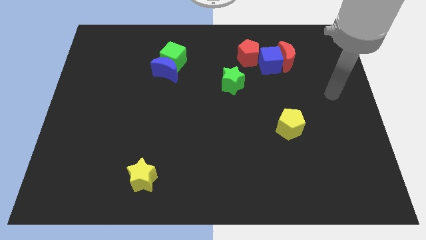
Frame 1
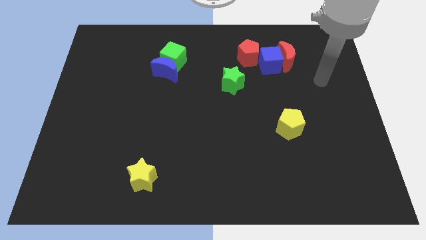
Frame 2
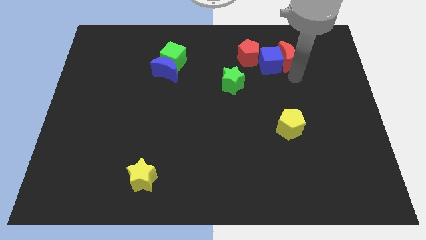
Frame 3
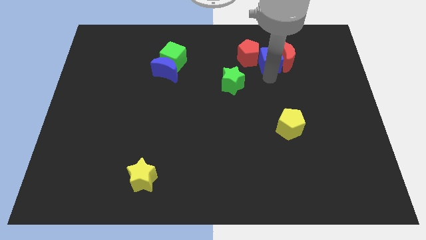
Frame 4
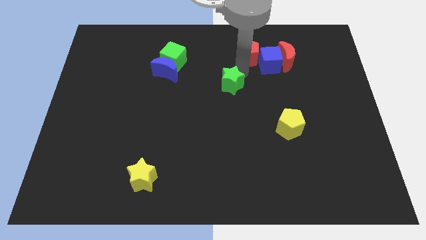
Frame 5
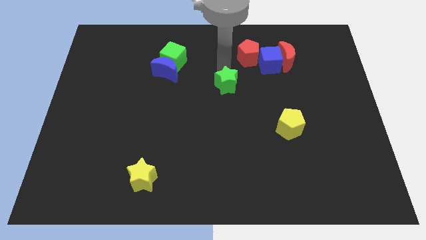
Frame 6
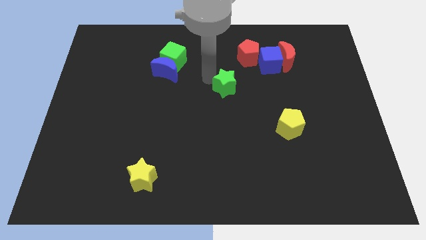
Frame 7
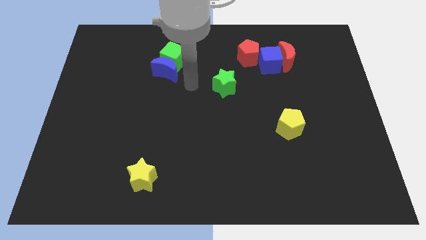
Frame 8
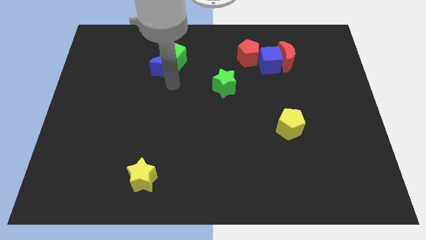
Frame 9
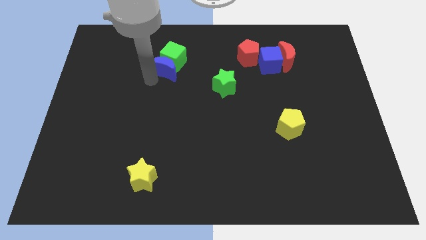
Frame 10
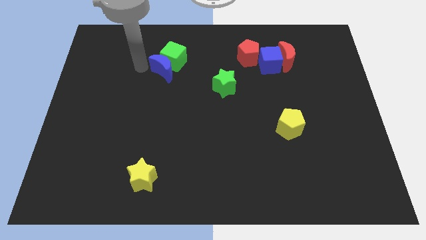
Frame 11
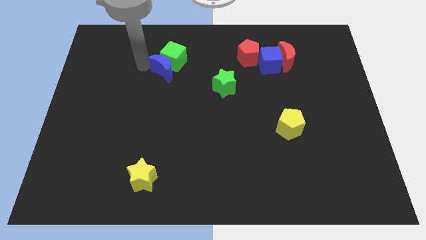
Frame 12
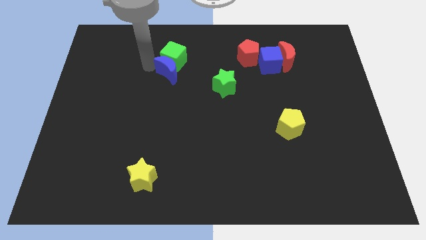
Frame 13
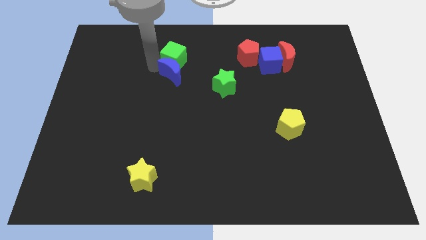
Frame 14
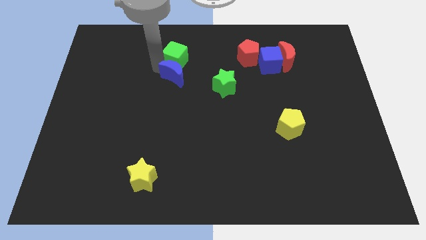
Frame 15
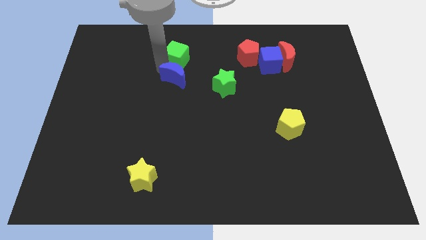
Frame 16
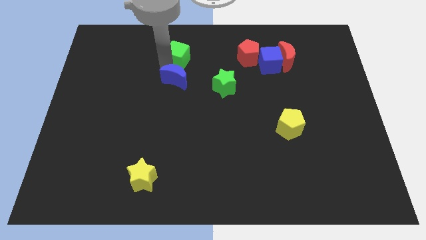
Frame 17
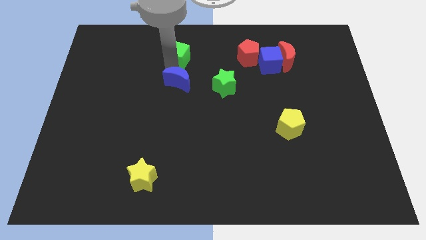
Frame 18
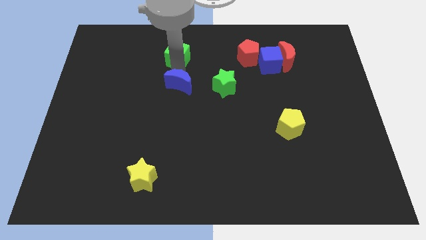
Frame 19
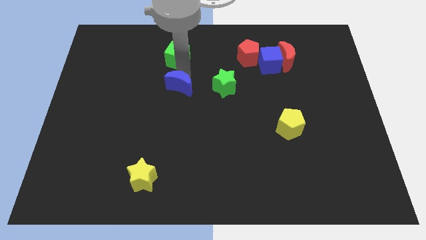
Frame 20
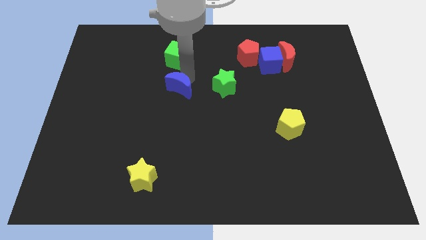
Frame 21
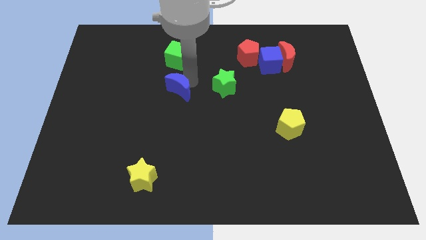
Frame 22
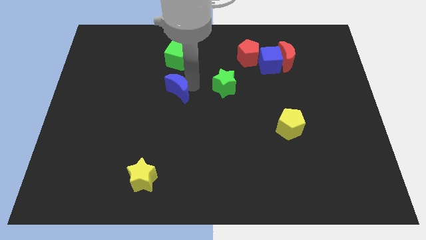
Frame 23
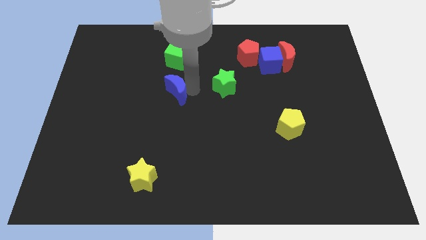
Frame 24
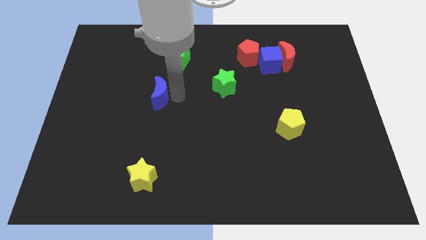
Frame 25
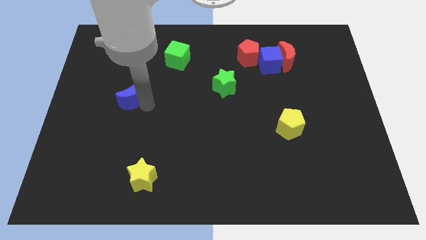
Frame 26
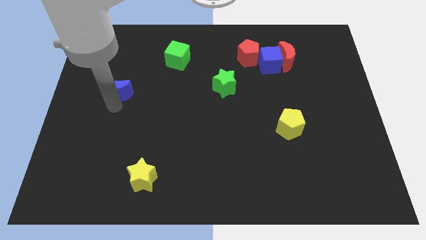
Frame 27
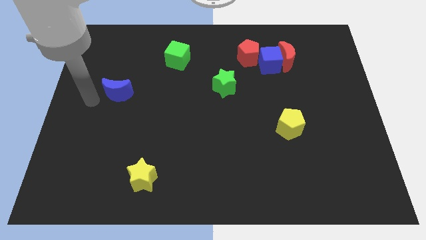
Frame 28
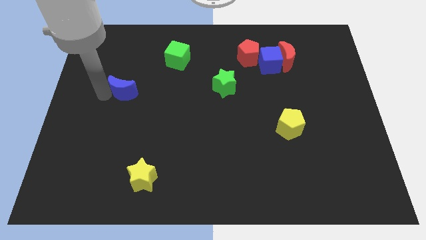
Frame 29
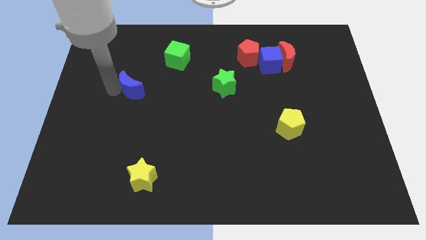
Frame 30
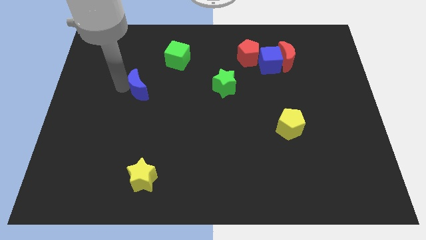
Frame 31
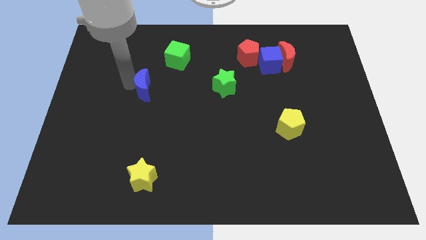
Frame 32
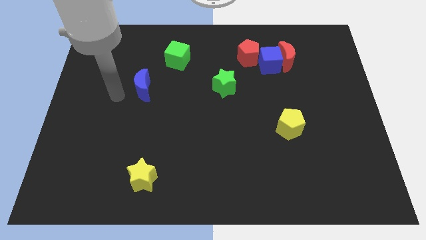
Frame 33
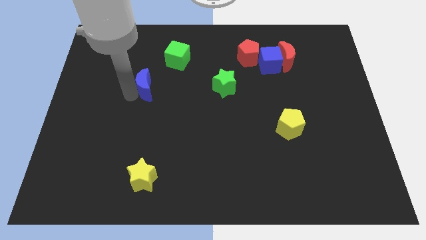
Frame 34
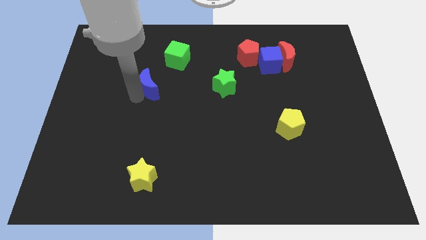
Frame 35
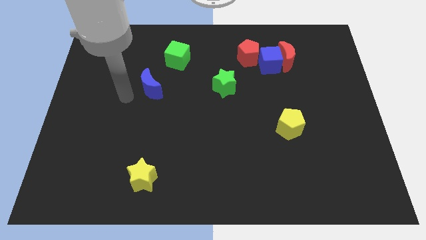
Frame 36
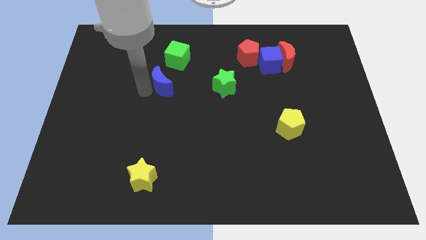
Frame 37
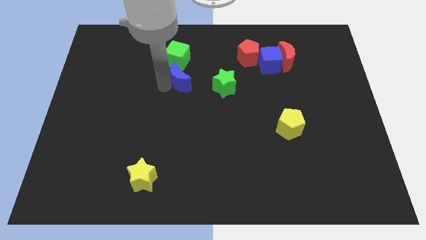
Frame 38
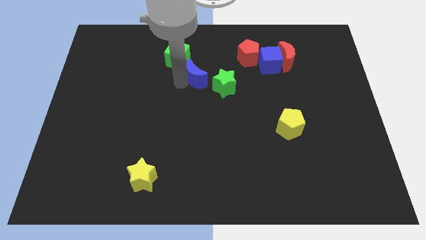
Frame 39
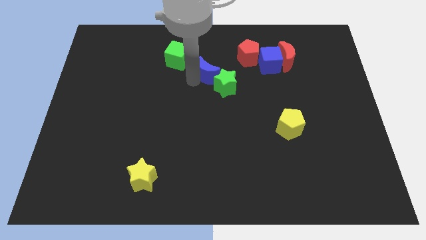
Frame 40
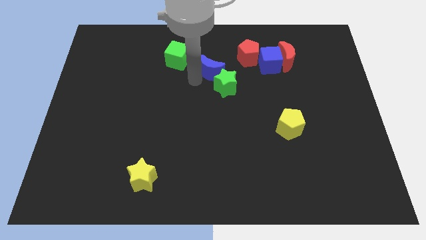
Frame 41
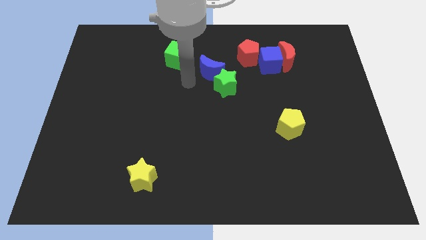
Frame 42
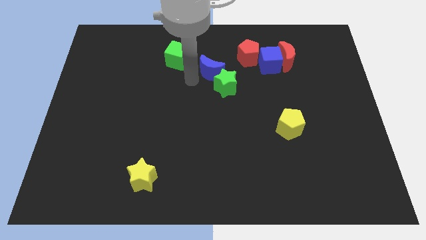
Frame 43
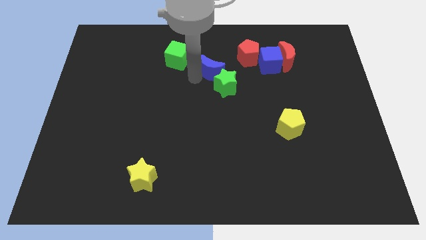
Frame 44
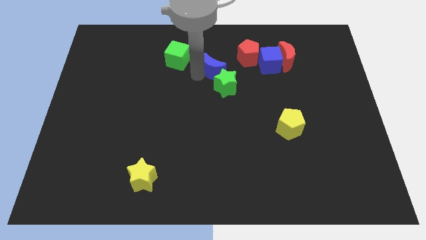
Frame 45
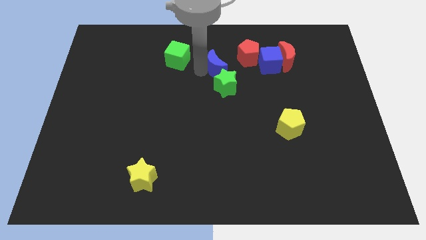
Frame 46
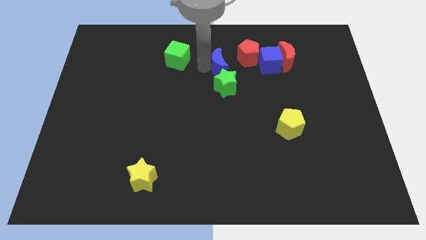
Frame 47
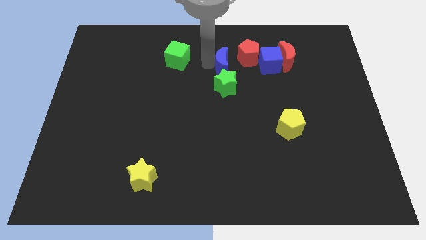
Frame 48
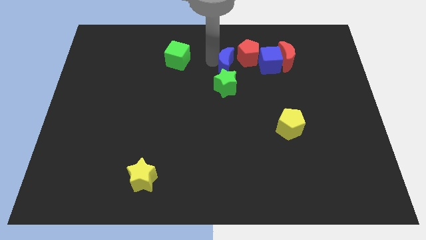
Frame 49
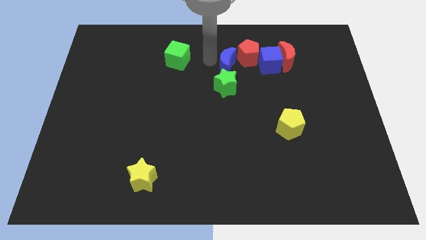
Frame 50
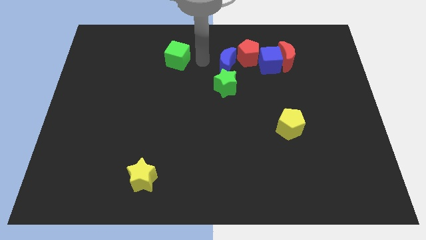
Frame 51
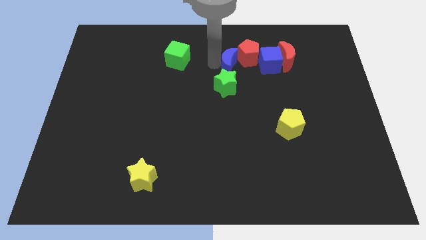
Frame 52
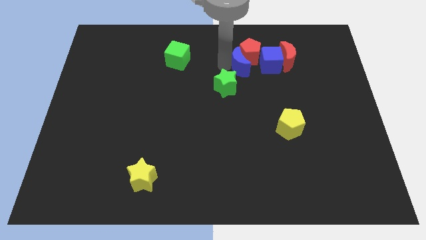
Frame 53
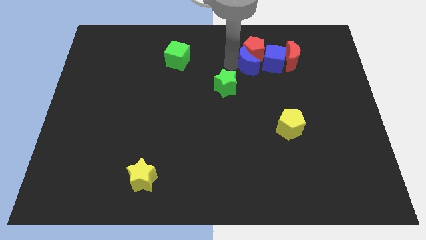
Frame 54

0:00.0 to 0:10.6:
slide the blue moon right

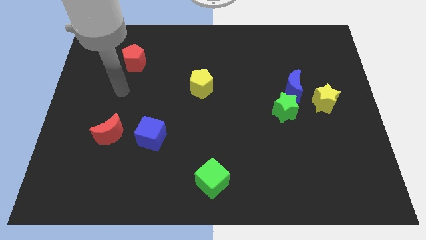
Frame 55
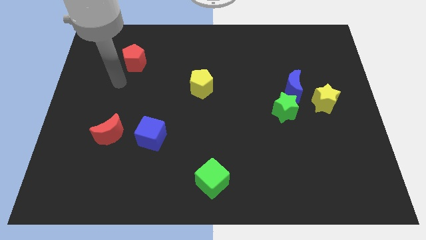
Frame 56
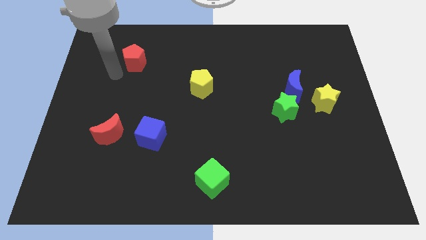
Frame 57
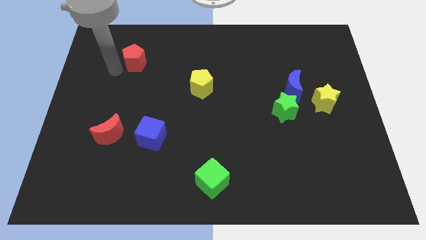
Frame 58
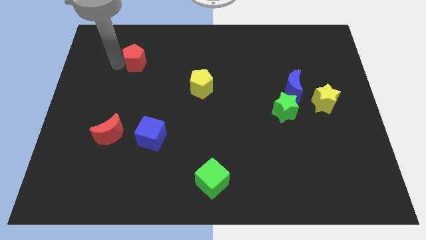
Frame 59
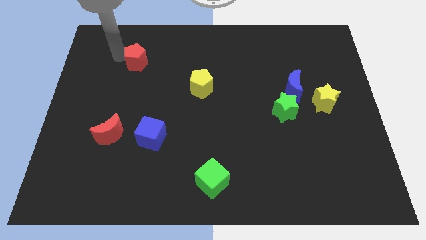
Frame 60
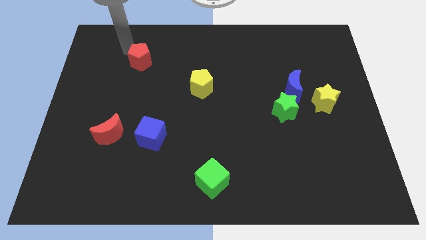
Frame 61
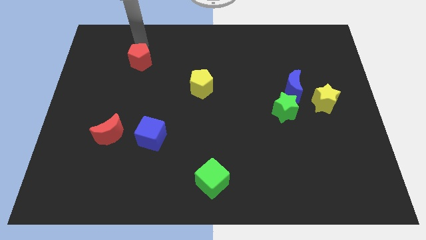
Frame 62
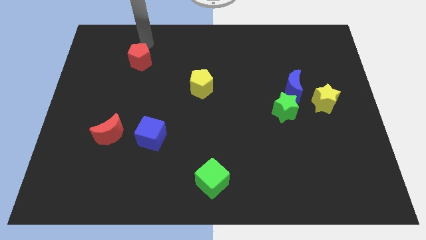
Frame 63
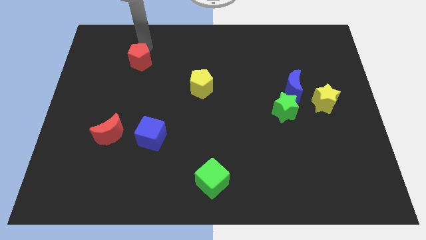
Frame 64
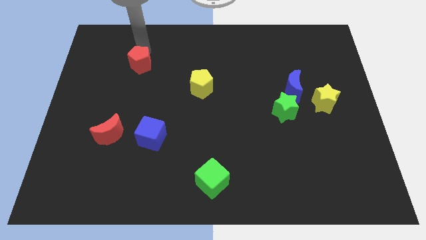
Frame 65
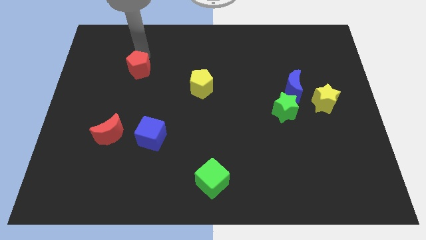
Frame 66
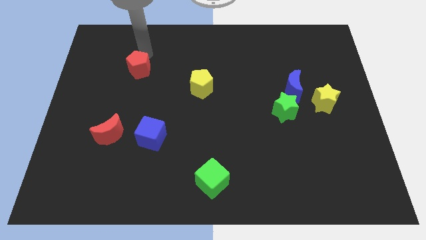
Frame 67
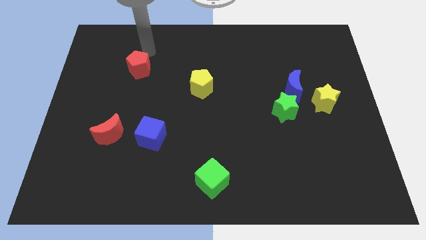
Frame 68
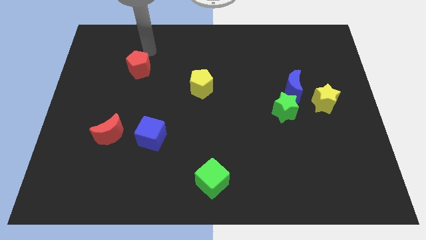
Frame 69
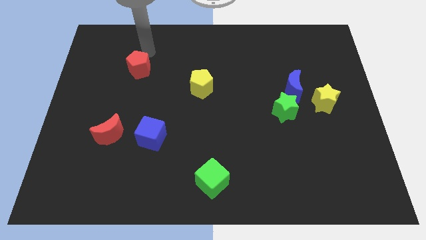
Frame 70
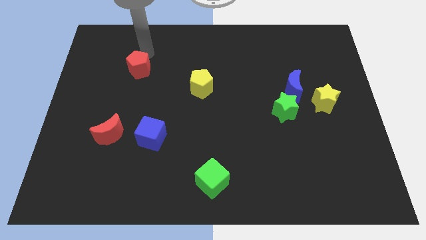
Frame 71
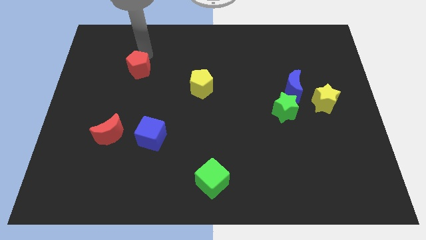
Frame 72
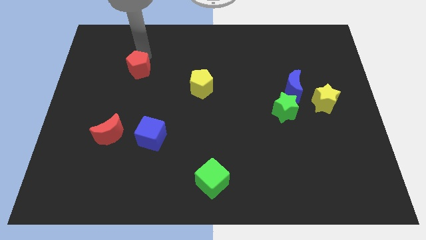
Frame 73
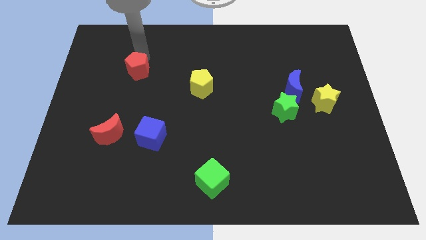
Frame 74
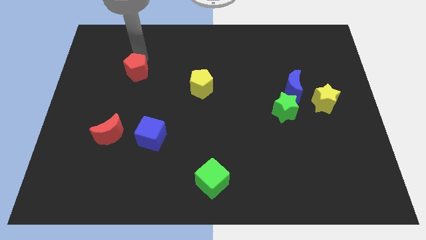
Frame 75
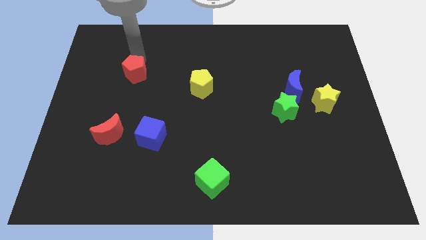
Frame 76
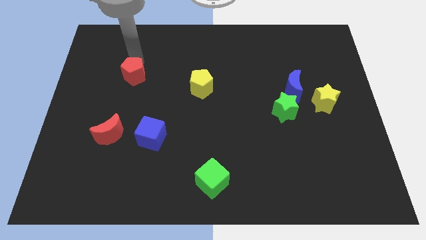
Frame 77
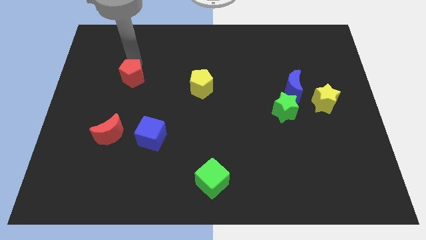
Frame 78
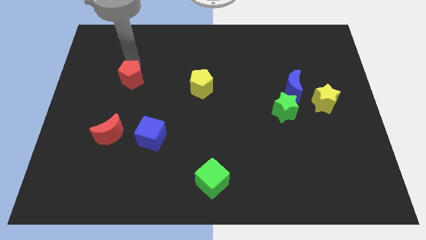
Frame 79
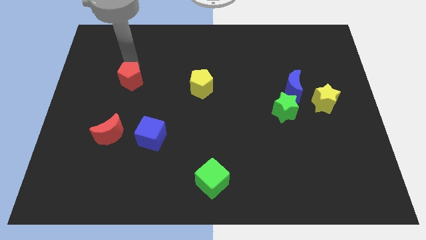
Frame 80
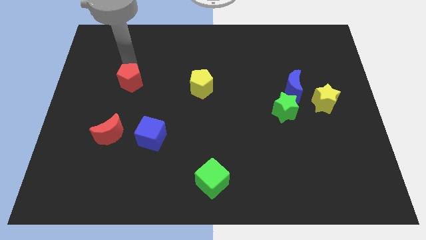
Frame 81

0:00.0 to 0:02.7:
slightly move the red pentagon downwards

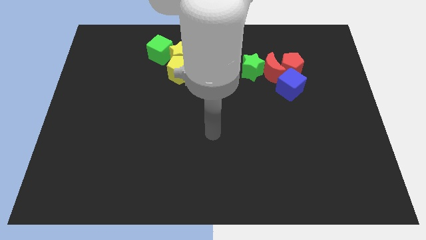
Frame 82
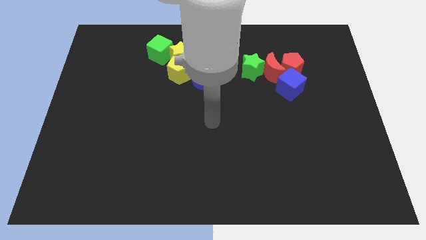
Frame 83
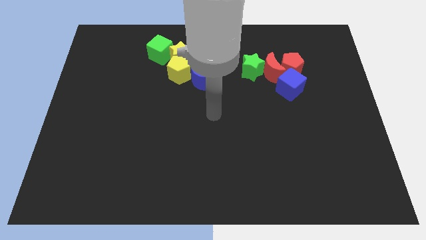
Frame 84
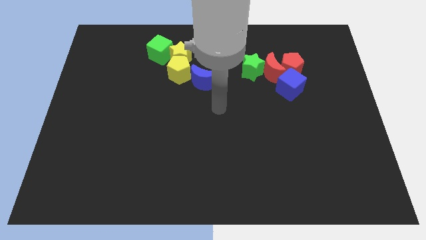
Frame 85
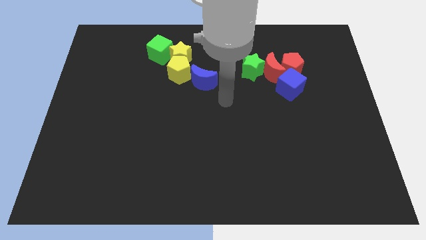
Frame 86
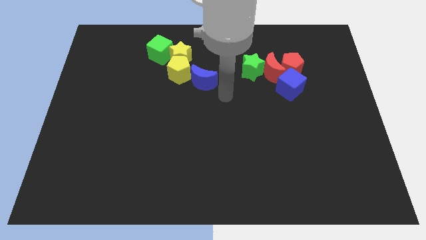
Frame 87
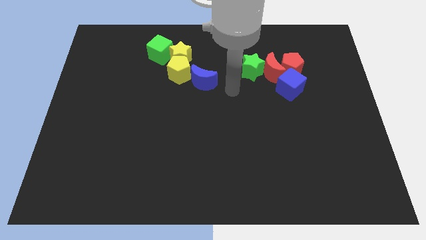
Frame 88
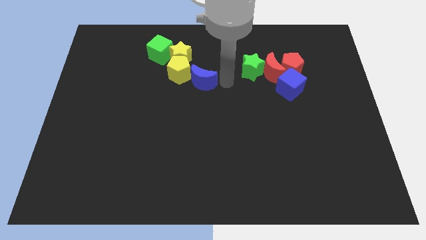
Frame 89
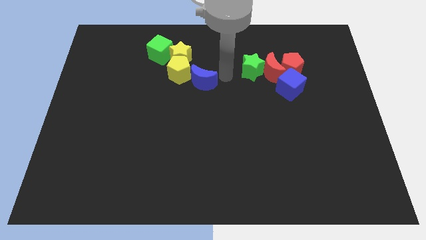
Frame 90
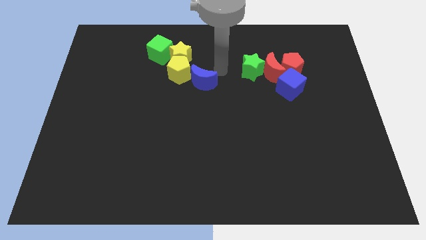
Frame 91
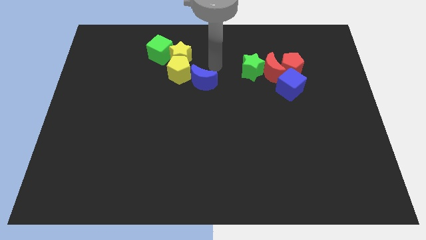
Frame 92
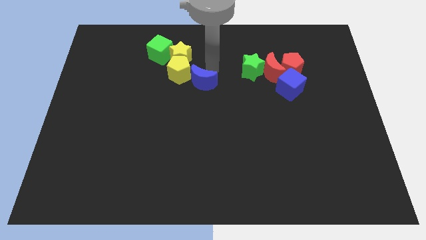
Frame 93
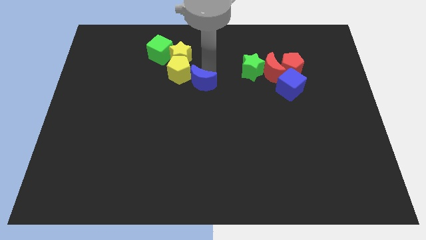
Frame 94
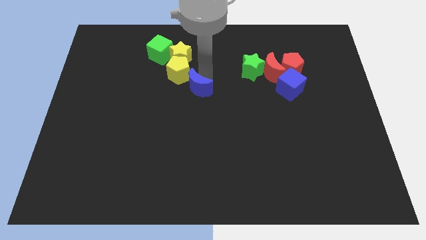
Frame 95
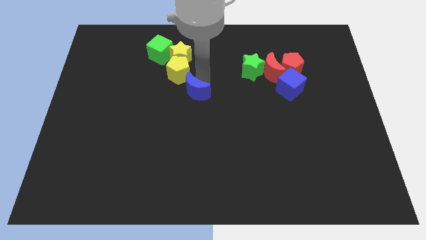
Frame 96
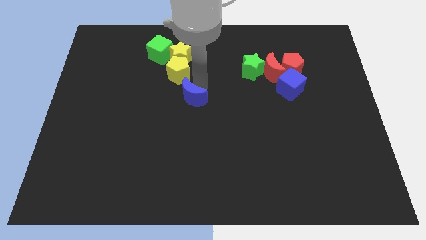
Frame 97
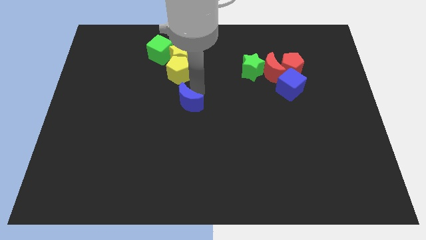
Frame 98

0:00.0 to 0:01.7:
slide the blue moon a bit downwards and to the left diagonally
